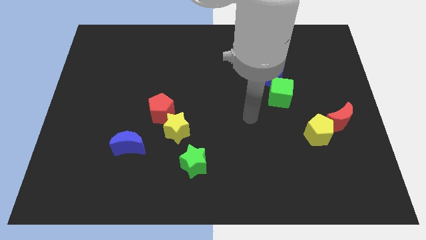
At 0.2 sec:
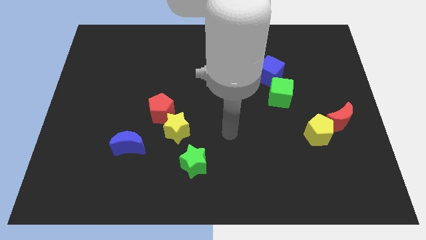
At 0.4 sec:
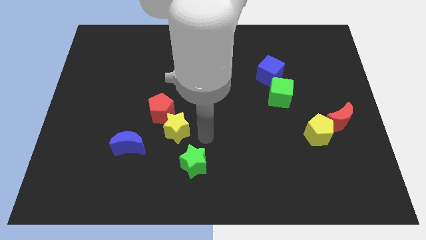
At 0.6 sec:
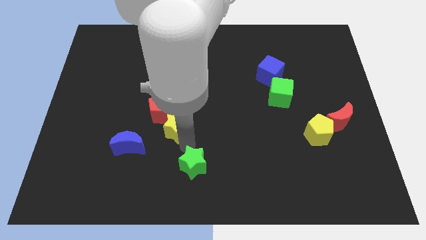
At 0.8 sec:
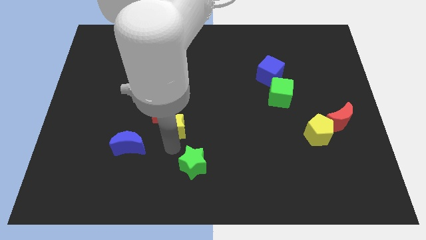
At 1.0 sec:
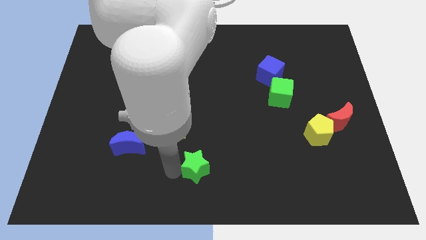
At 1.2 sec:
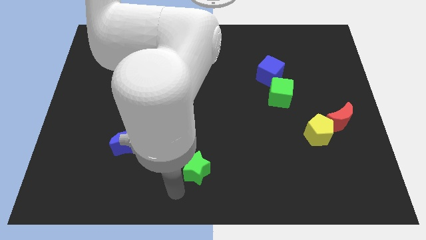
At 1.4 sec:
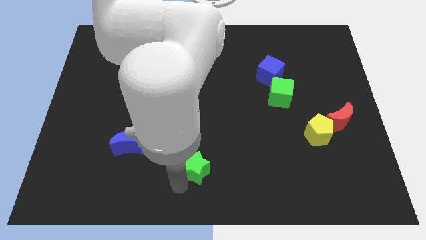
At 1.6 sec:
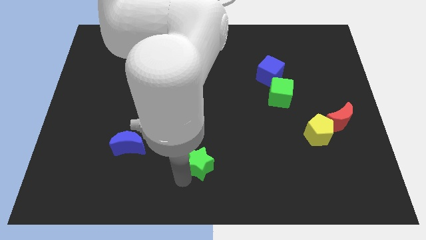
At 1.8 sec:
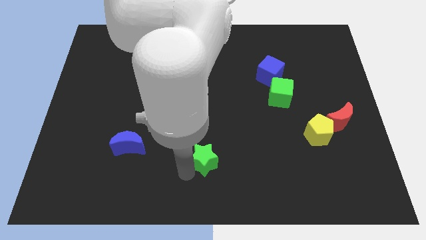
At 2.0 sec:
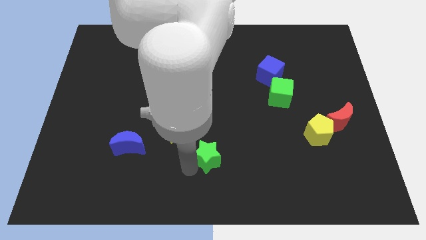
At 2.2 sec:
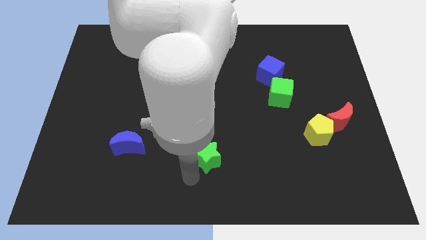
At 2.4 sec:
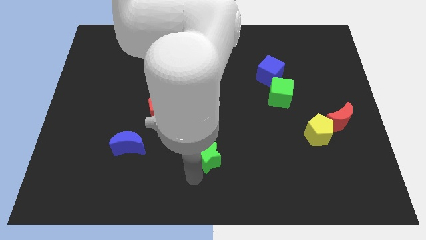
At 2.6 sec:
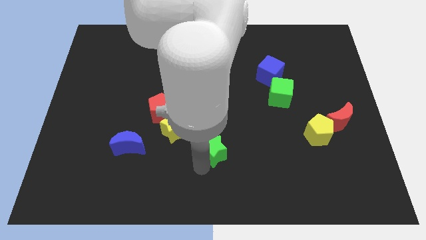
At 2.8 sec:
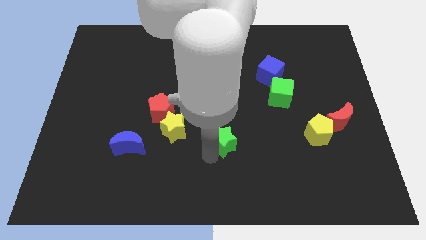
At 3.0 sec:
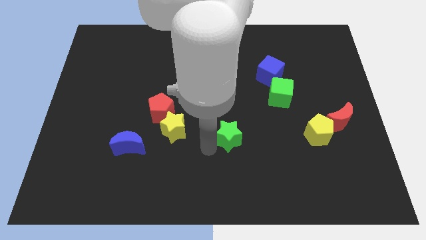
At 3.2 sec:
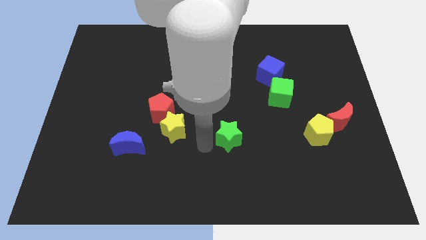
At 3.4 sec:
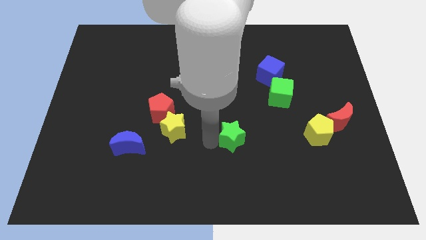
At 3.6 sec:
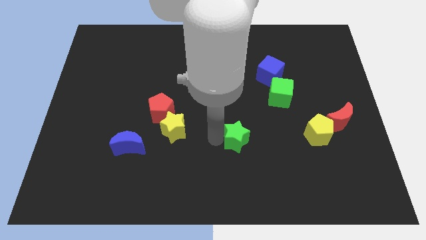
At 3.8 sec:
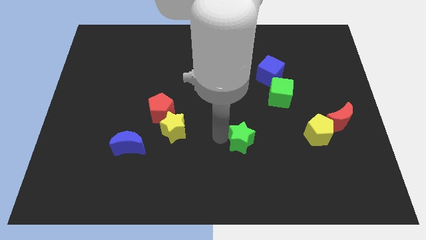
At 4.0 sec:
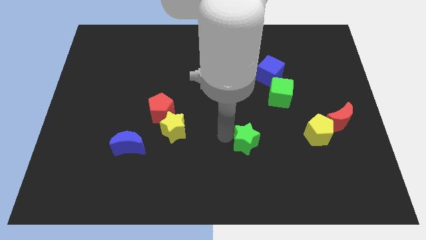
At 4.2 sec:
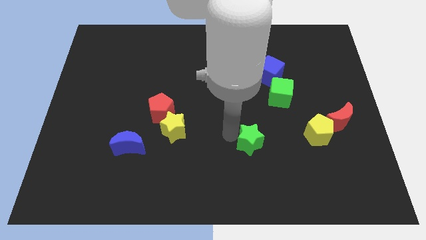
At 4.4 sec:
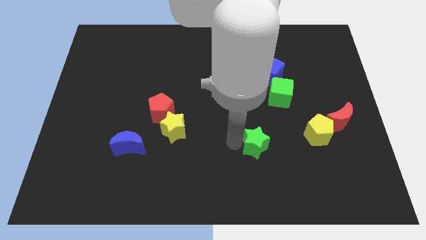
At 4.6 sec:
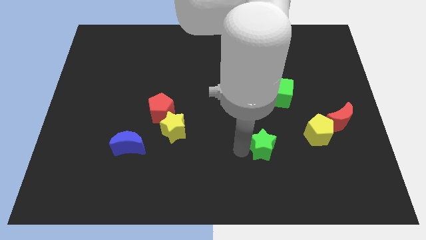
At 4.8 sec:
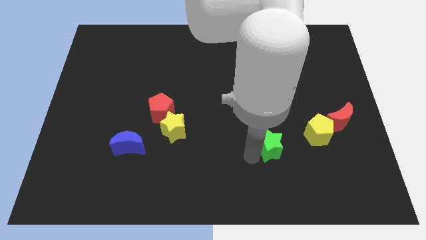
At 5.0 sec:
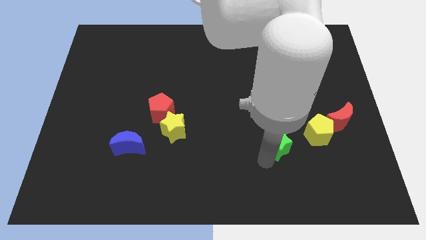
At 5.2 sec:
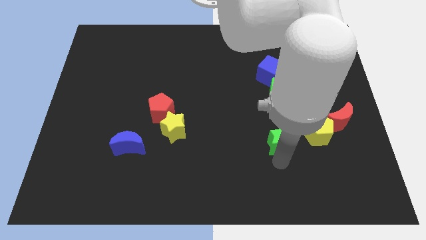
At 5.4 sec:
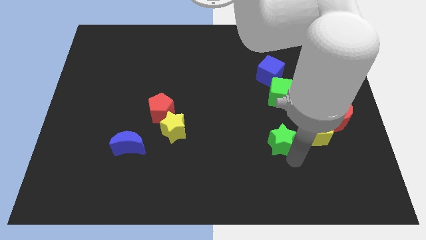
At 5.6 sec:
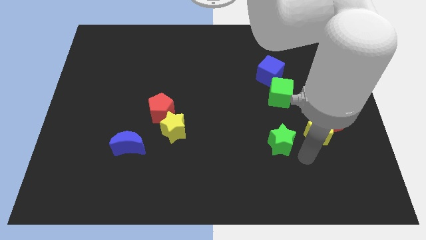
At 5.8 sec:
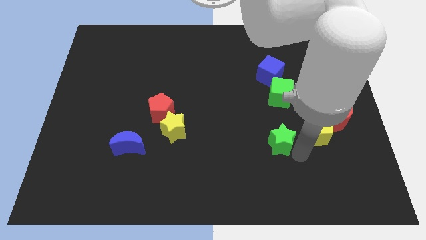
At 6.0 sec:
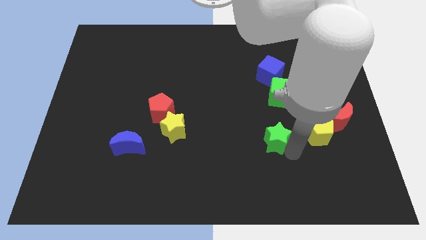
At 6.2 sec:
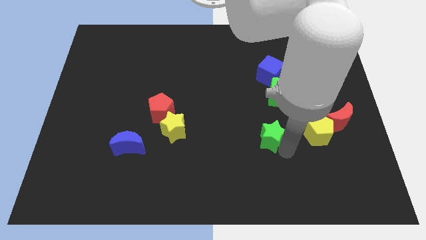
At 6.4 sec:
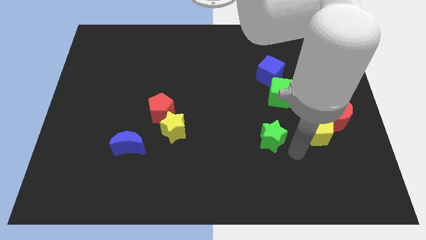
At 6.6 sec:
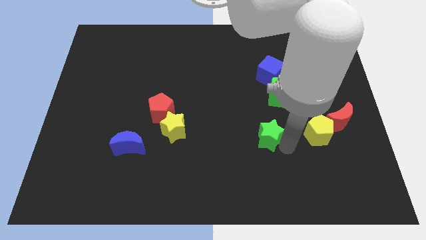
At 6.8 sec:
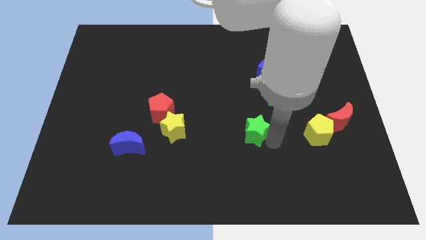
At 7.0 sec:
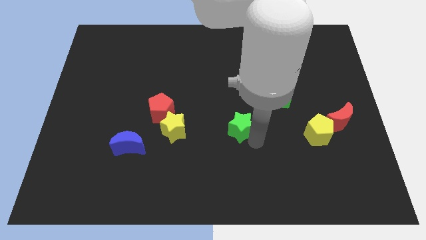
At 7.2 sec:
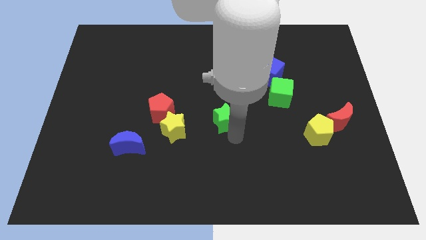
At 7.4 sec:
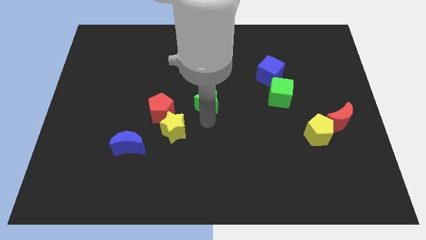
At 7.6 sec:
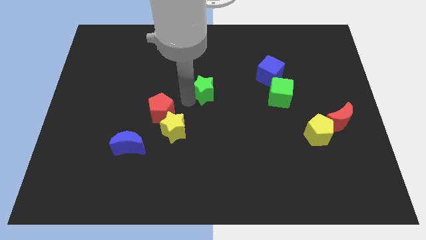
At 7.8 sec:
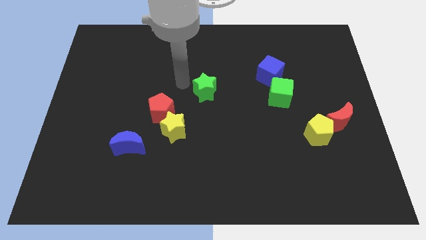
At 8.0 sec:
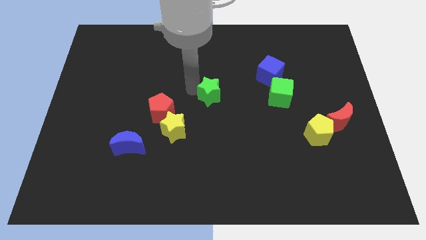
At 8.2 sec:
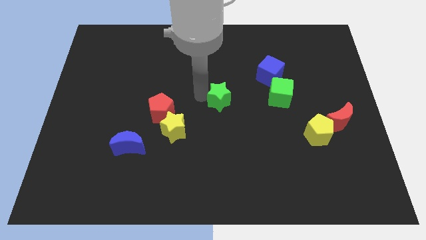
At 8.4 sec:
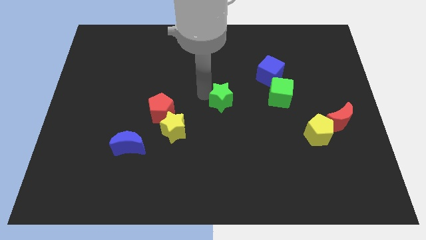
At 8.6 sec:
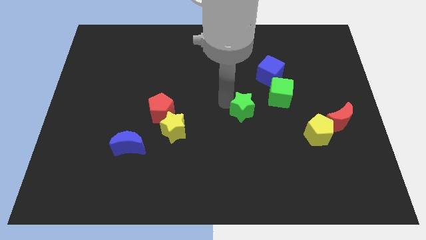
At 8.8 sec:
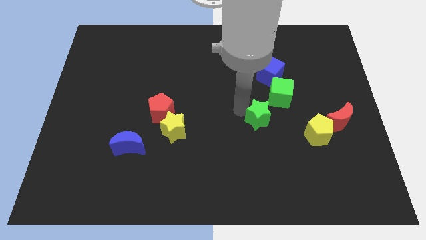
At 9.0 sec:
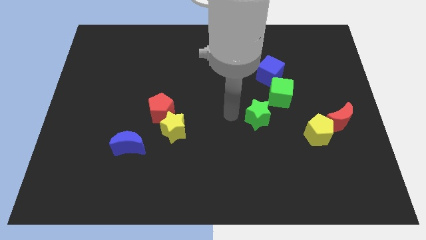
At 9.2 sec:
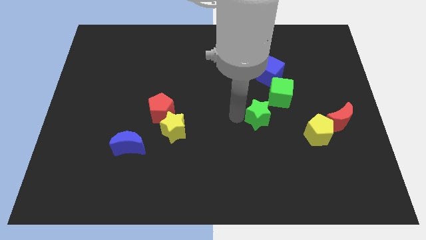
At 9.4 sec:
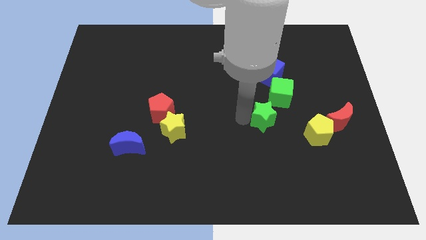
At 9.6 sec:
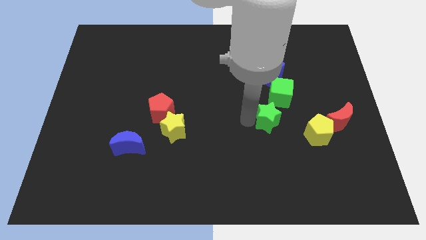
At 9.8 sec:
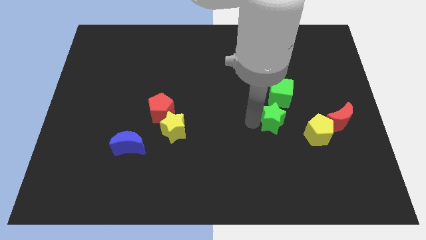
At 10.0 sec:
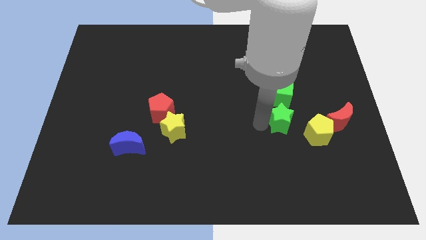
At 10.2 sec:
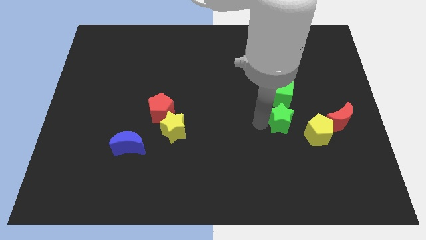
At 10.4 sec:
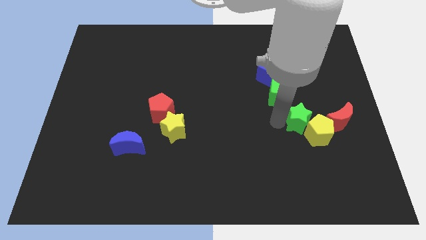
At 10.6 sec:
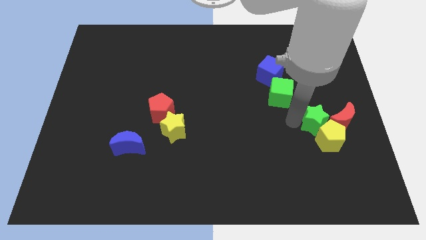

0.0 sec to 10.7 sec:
move the green star next to the red moon

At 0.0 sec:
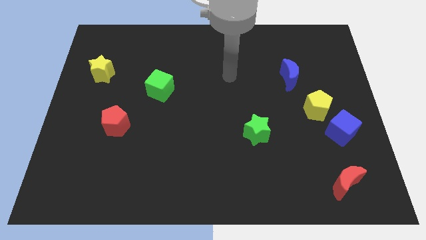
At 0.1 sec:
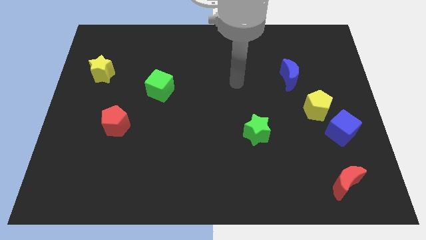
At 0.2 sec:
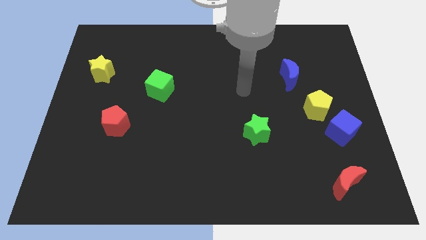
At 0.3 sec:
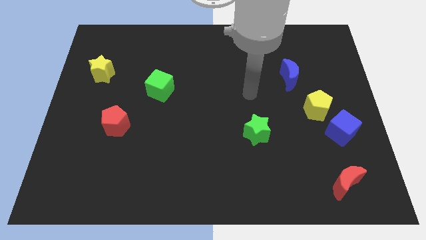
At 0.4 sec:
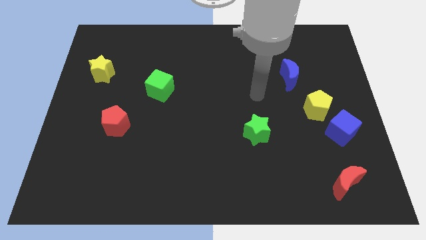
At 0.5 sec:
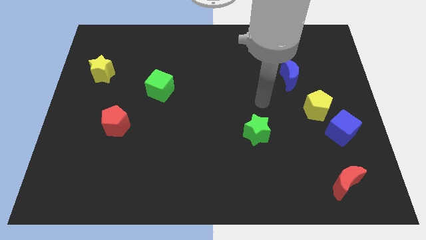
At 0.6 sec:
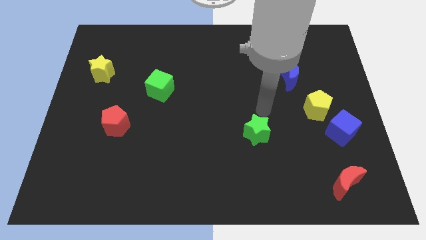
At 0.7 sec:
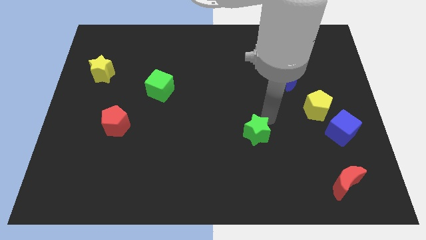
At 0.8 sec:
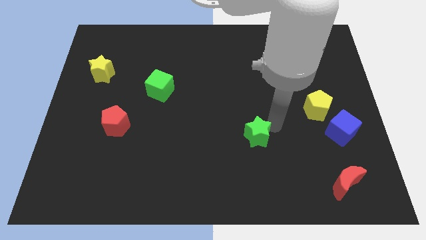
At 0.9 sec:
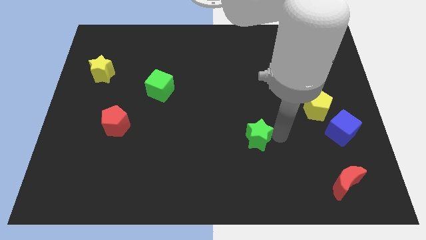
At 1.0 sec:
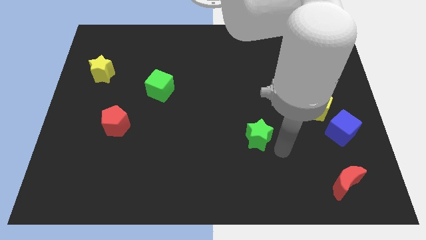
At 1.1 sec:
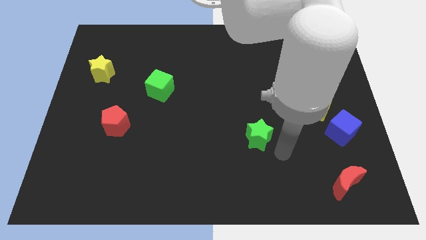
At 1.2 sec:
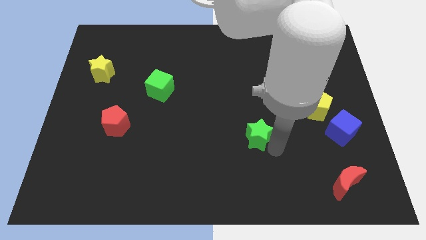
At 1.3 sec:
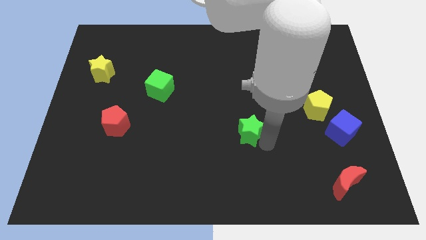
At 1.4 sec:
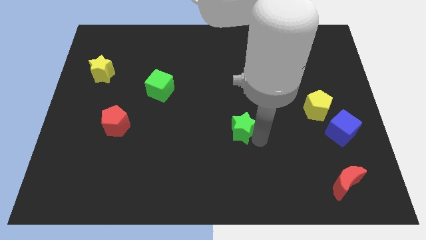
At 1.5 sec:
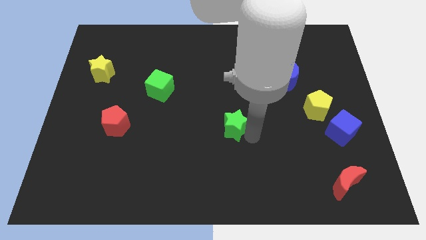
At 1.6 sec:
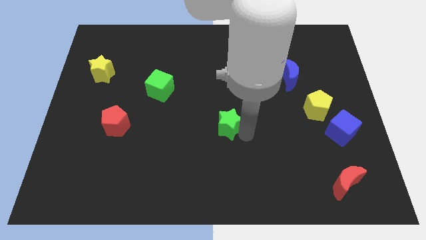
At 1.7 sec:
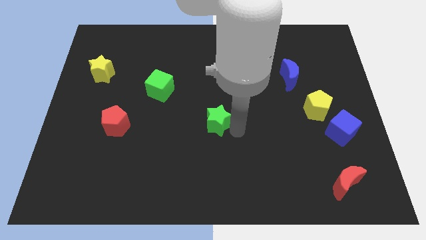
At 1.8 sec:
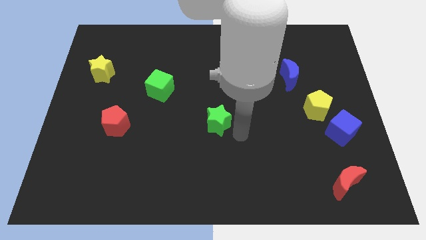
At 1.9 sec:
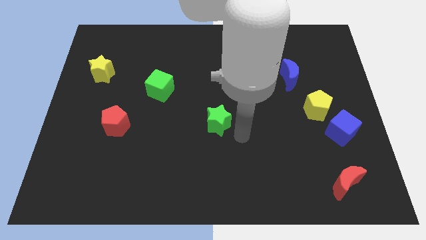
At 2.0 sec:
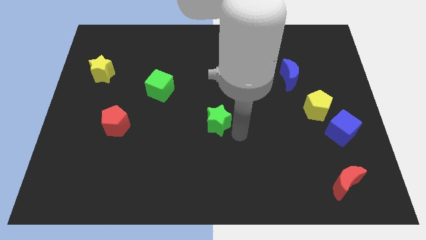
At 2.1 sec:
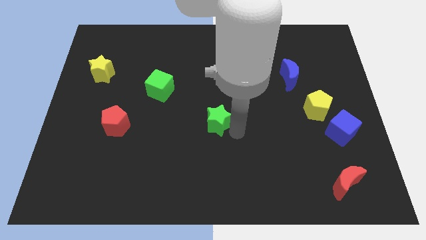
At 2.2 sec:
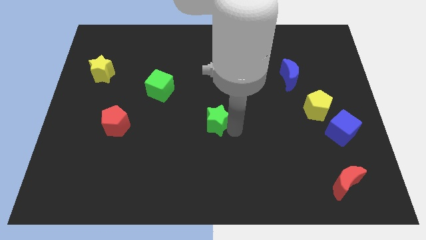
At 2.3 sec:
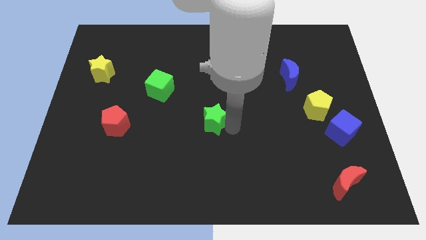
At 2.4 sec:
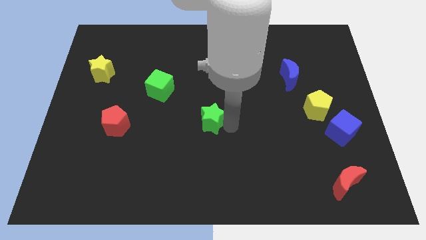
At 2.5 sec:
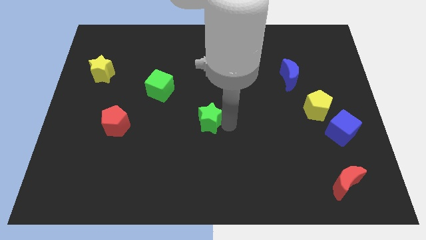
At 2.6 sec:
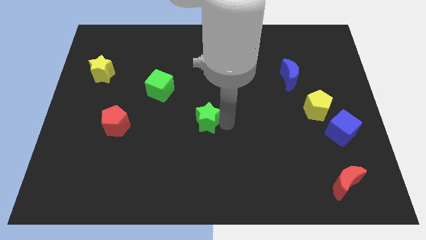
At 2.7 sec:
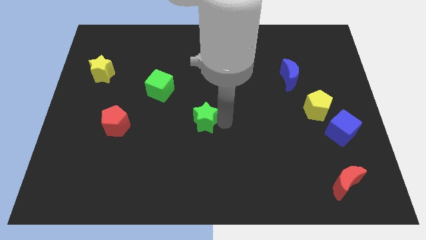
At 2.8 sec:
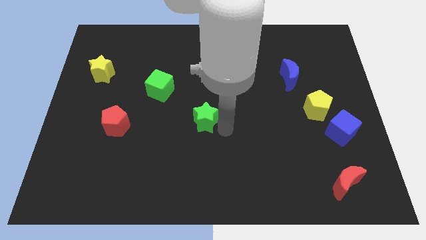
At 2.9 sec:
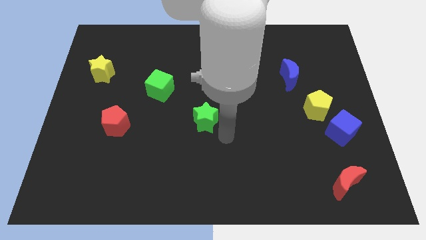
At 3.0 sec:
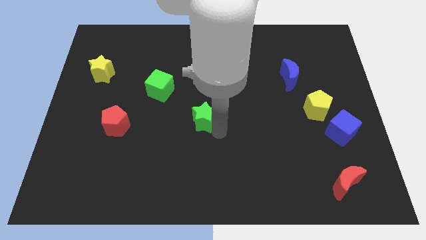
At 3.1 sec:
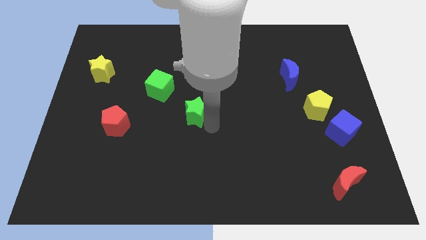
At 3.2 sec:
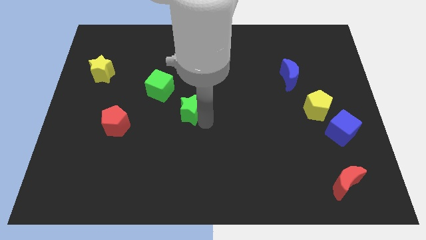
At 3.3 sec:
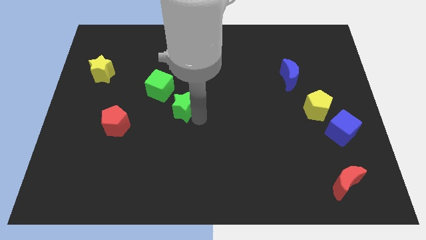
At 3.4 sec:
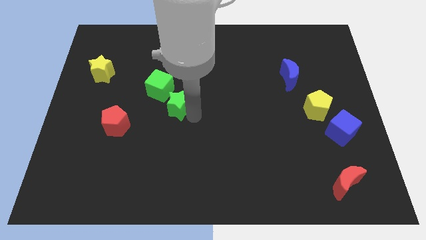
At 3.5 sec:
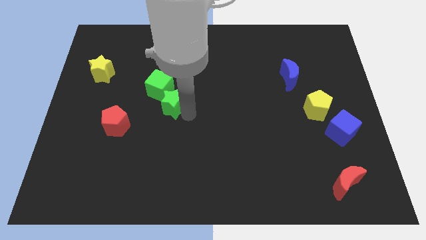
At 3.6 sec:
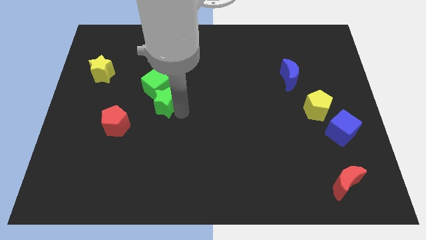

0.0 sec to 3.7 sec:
move the green star close to the green cube
